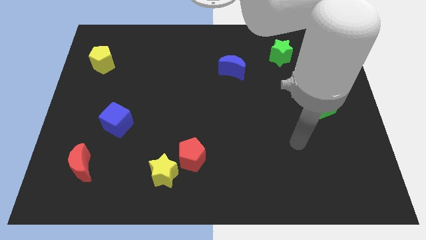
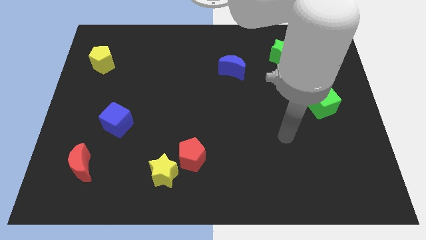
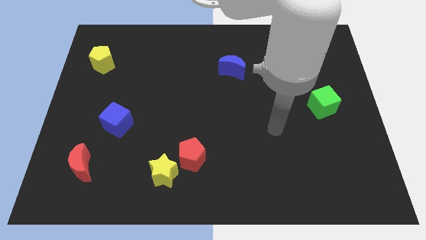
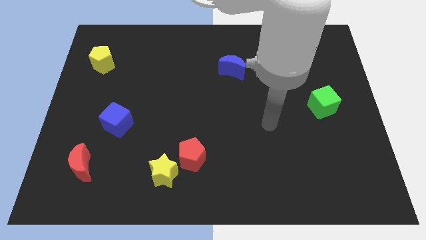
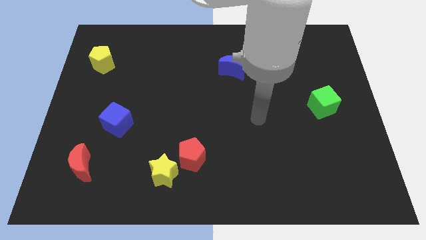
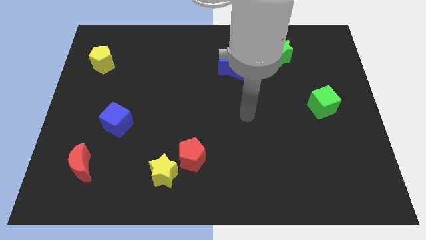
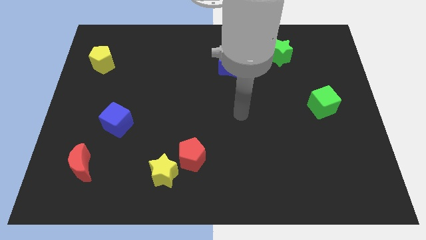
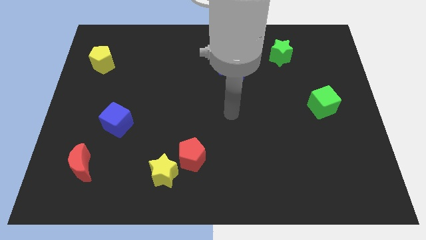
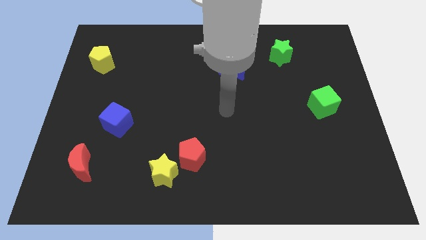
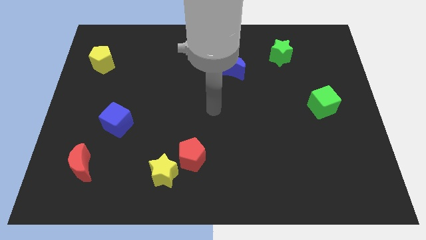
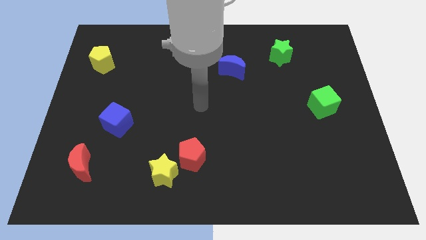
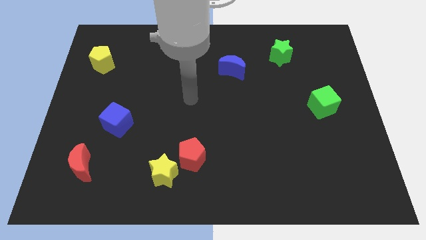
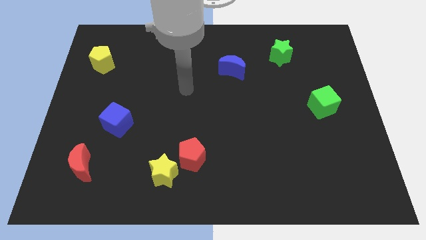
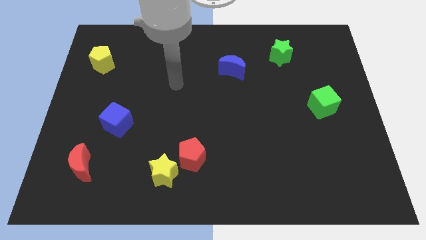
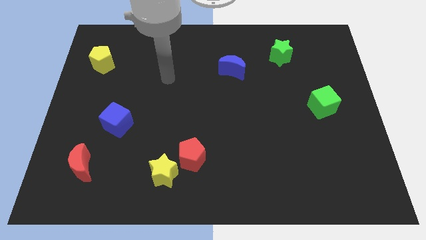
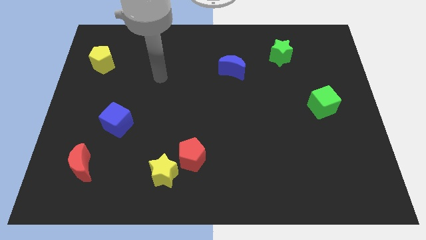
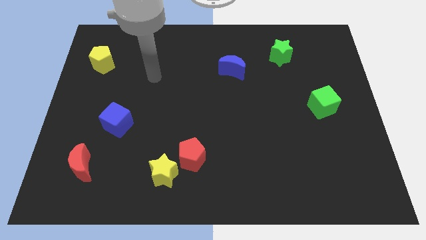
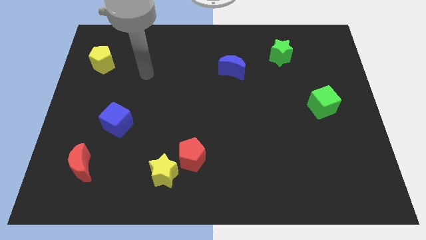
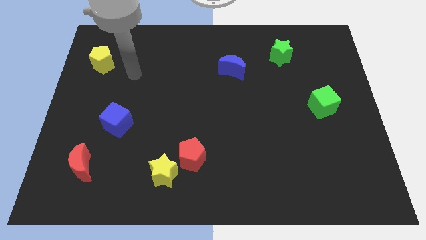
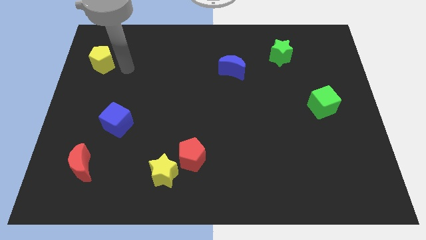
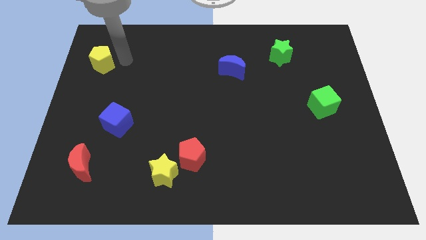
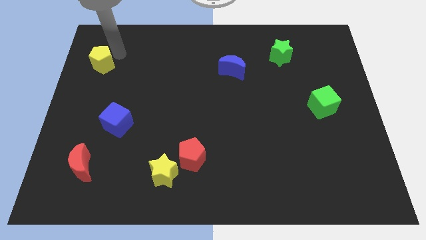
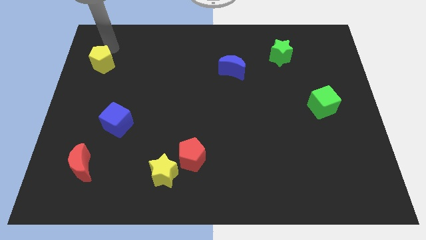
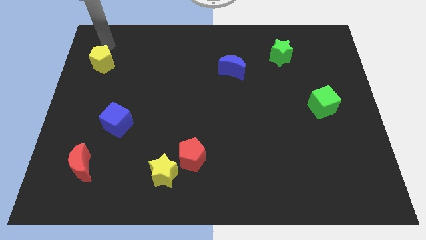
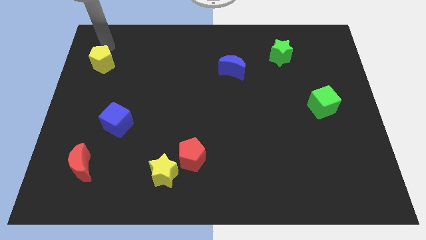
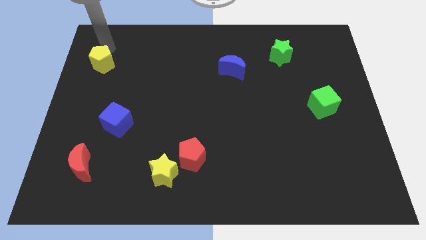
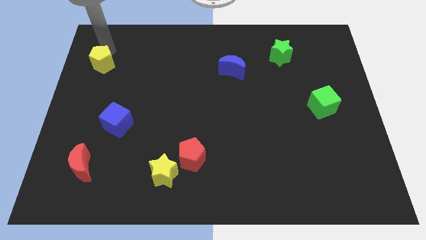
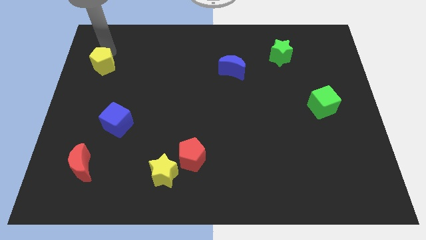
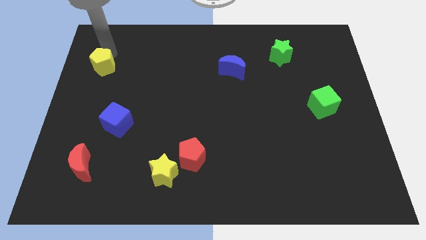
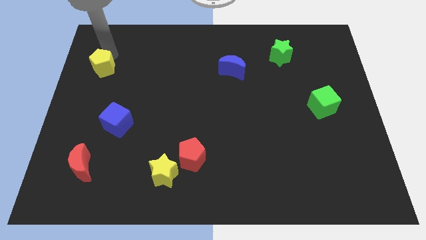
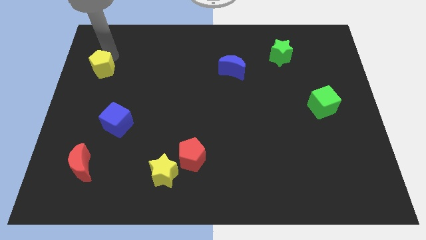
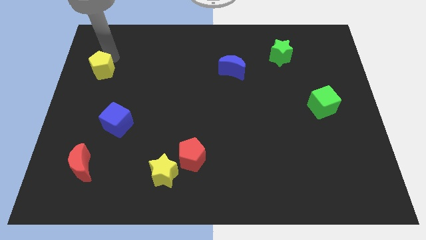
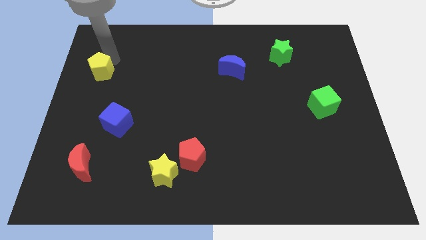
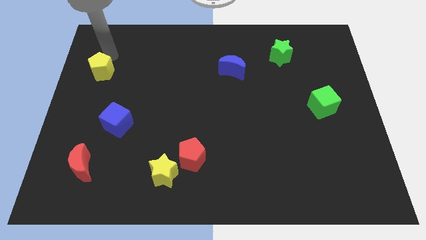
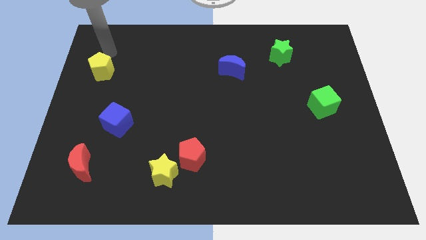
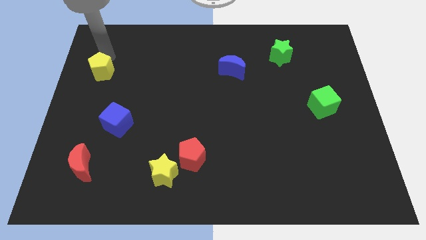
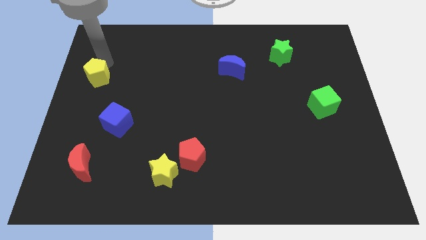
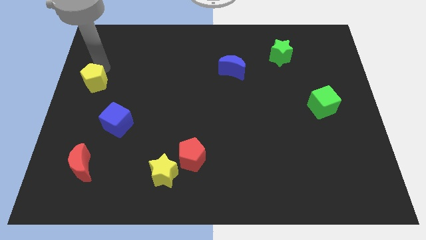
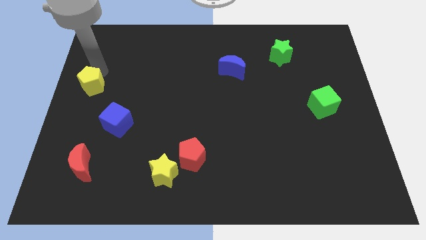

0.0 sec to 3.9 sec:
move the yellow pentagon a little down

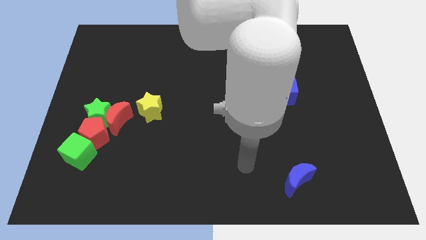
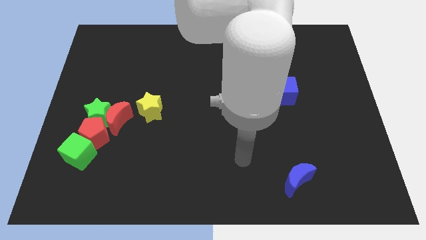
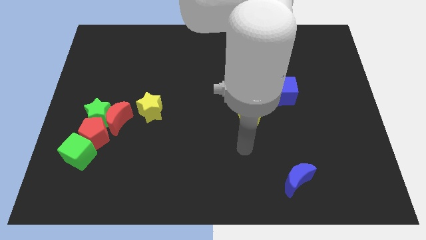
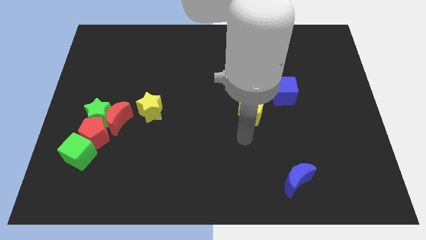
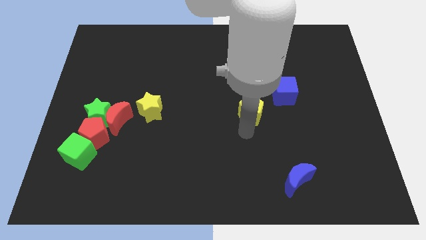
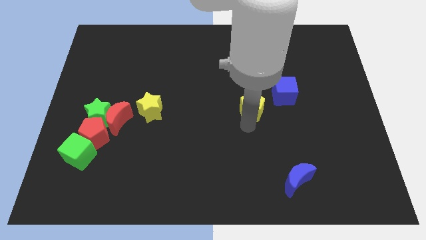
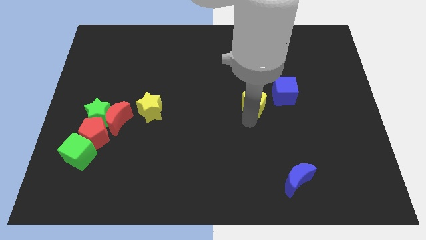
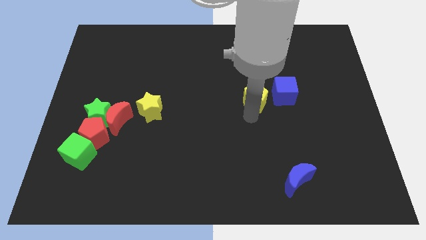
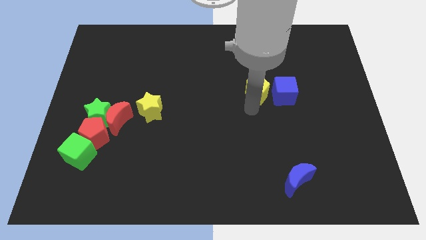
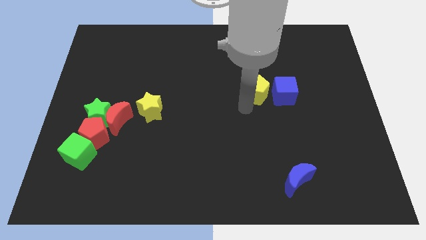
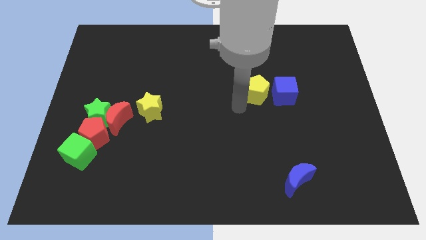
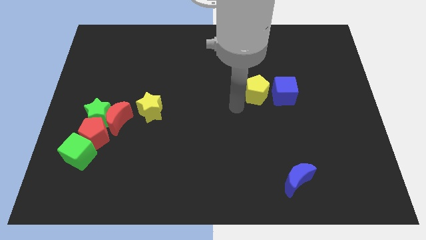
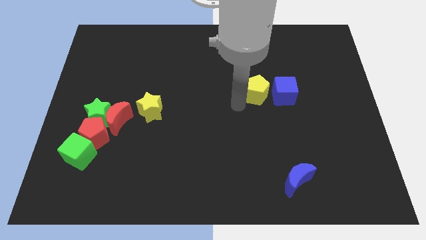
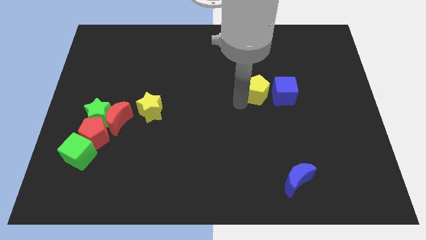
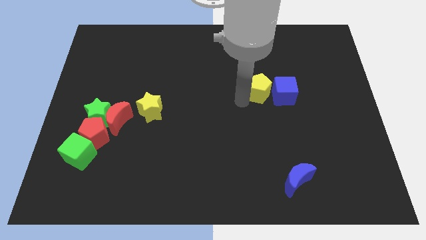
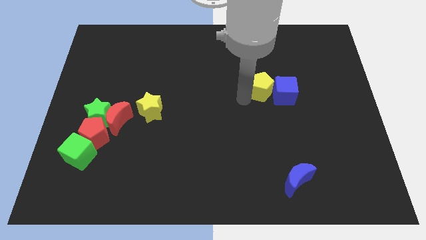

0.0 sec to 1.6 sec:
move the yellow pentagon a little diagonally up and to the right

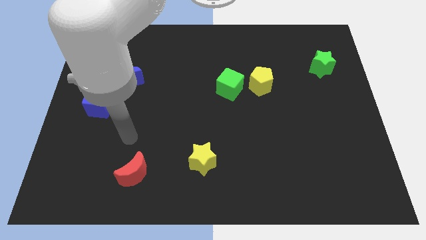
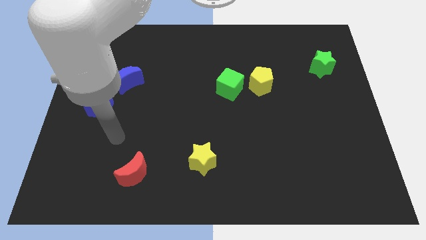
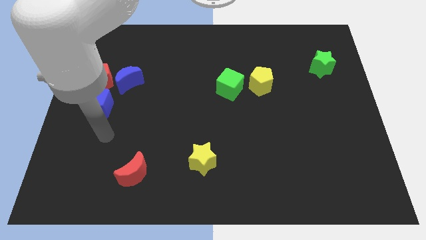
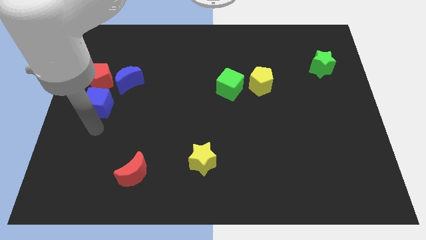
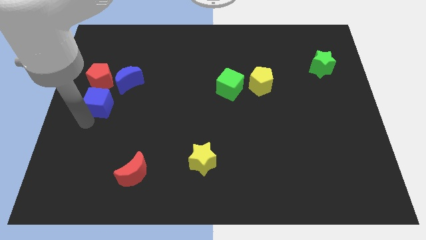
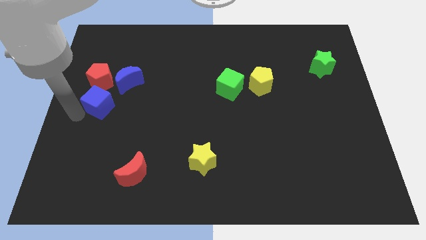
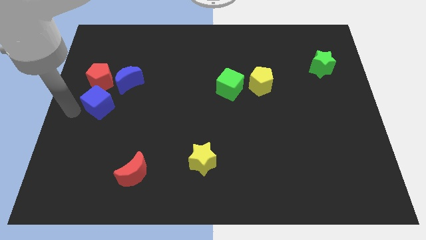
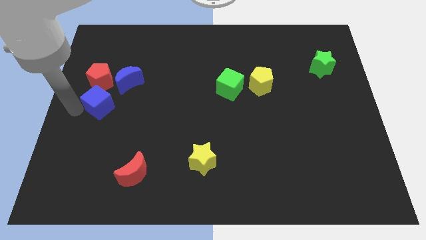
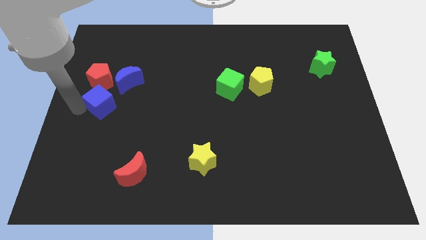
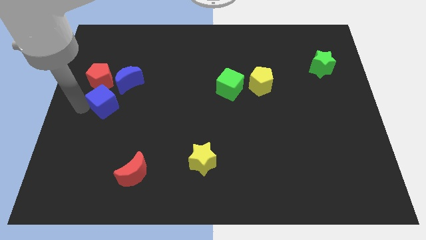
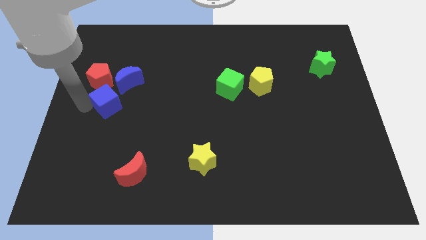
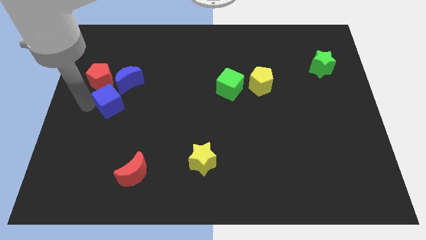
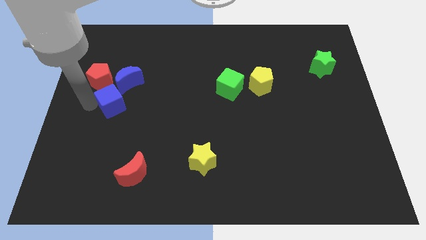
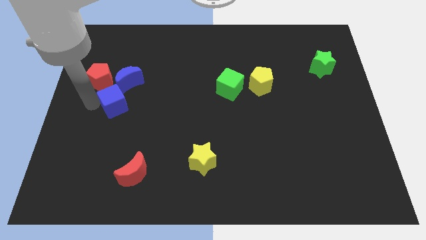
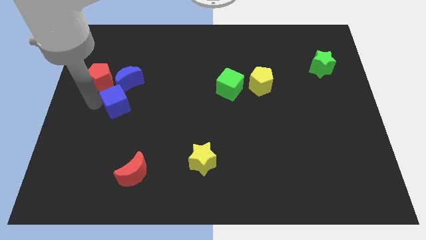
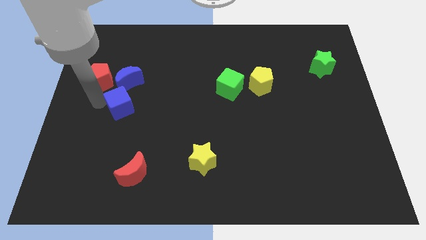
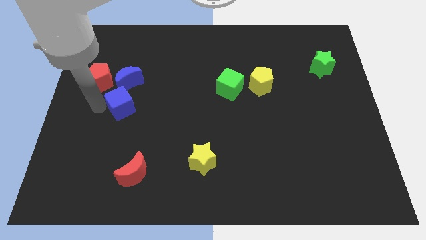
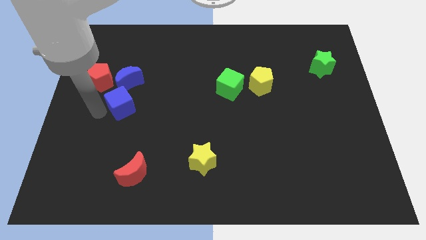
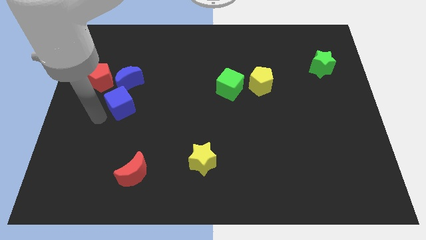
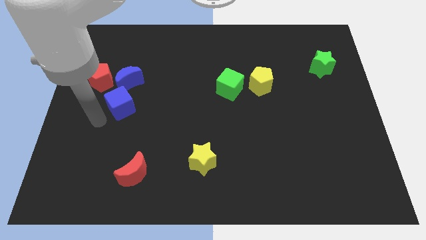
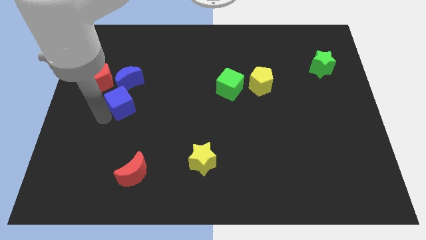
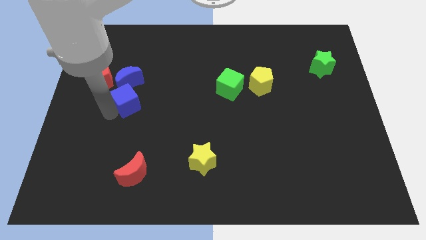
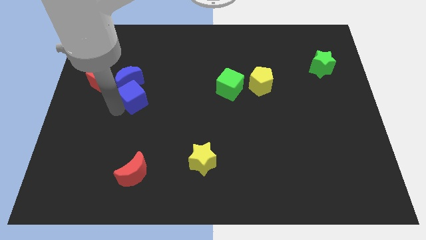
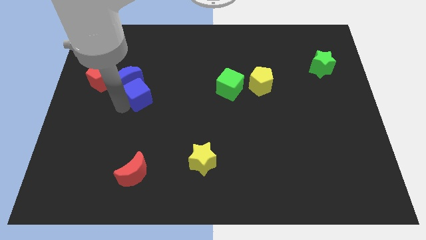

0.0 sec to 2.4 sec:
push the blue cube up and right somewhat

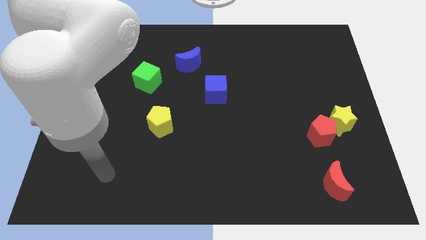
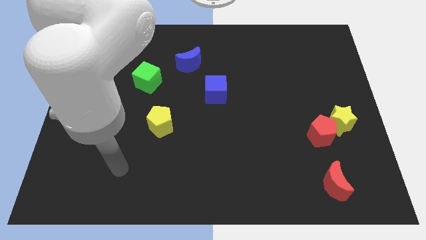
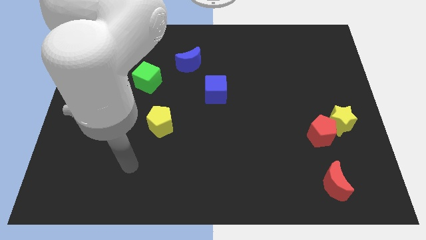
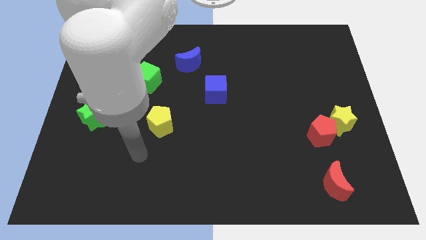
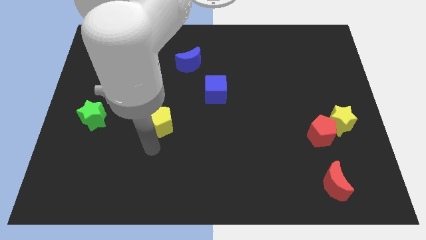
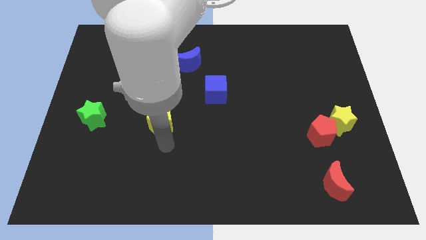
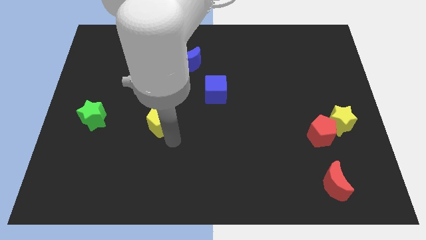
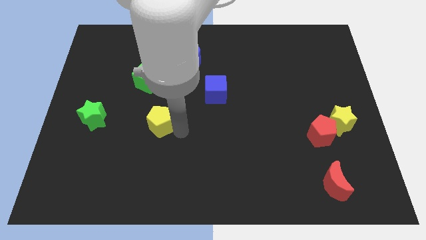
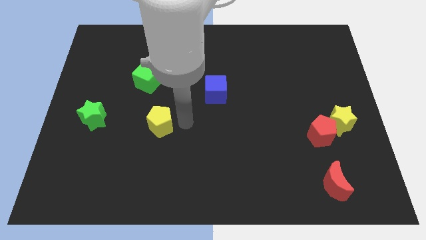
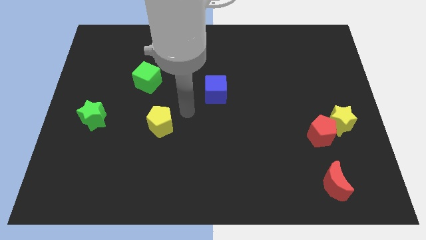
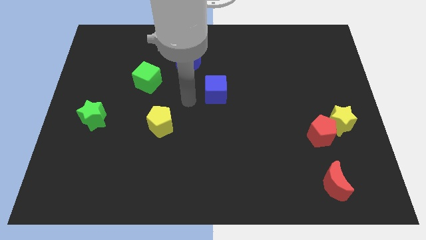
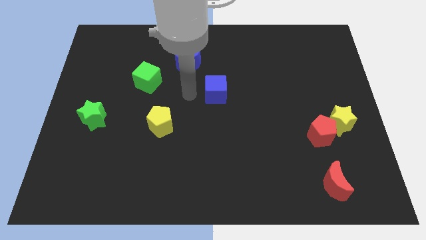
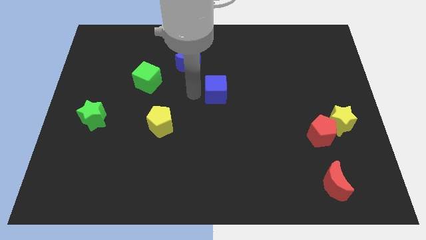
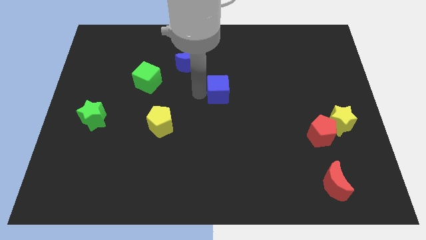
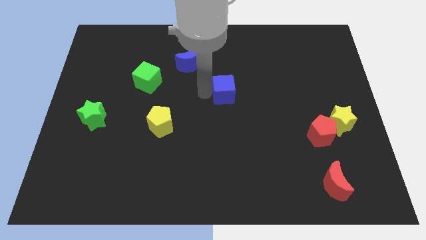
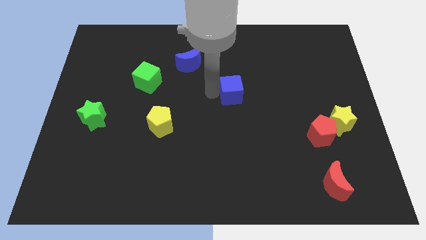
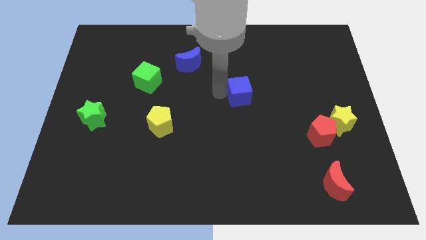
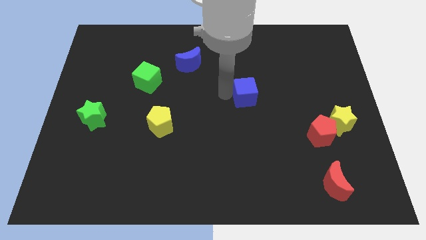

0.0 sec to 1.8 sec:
slide the blue cube to the right somewhat
